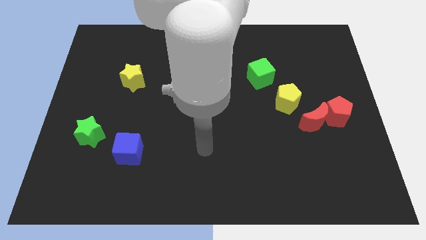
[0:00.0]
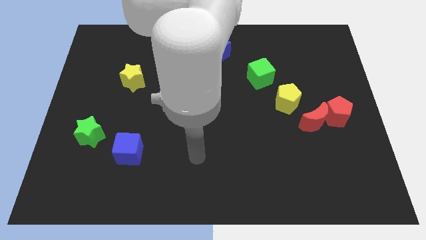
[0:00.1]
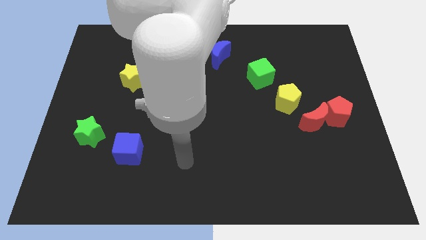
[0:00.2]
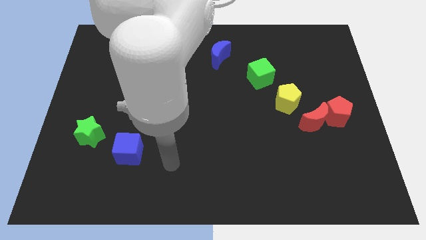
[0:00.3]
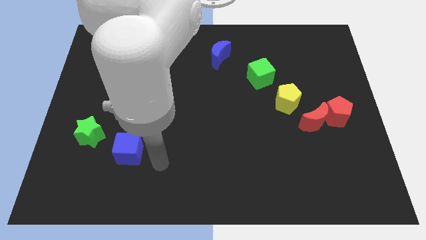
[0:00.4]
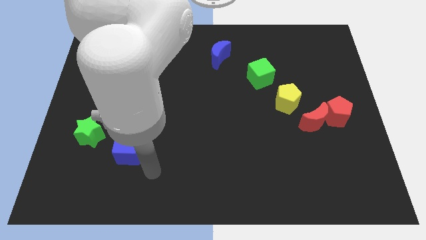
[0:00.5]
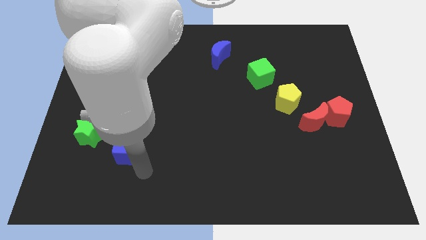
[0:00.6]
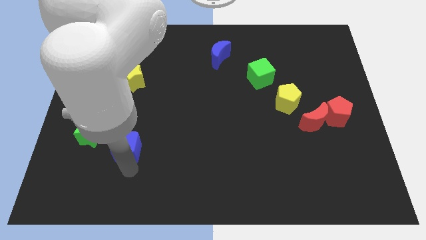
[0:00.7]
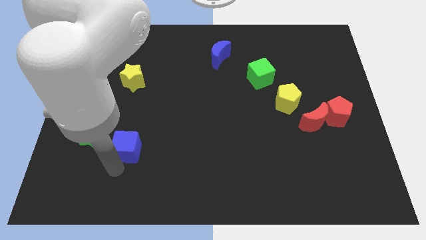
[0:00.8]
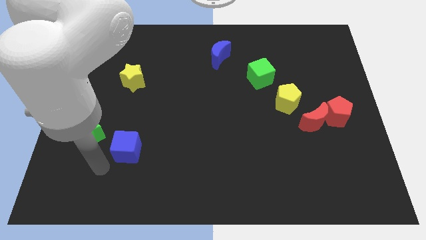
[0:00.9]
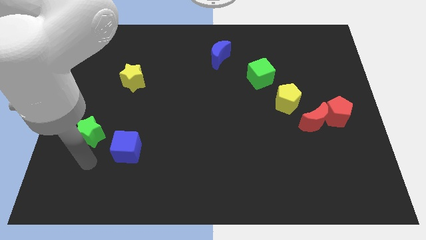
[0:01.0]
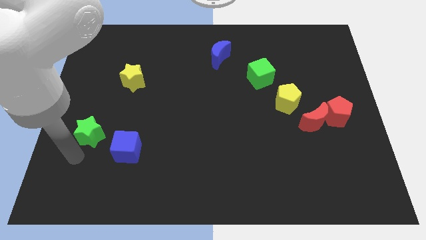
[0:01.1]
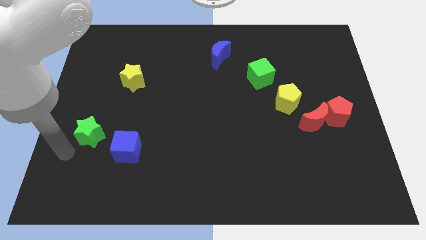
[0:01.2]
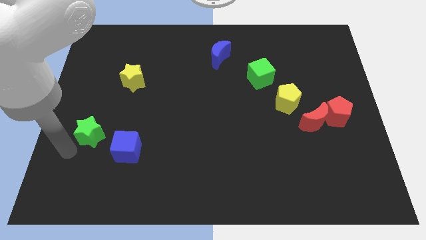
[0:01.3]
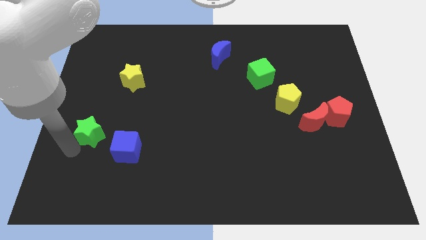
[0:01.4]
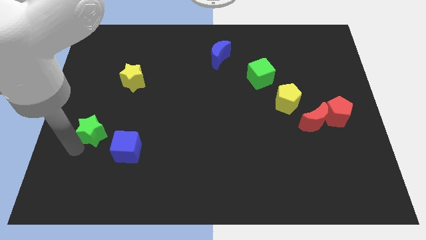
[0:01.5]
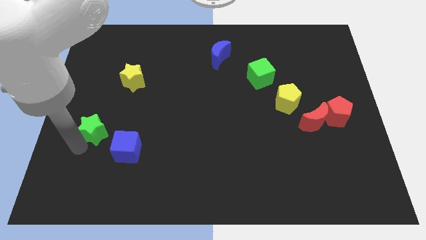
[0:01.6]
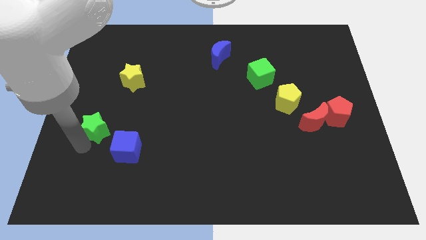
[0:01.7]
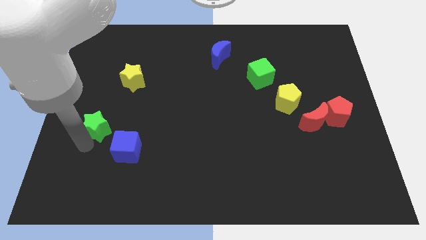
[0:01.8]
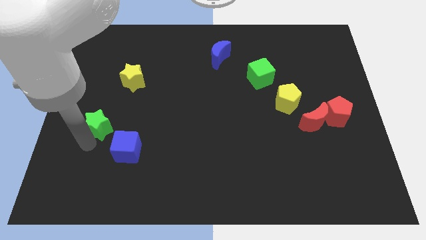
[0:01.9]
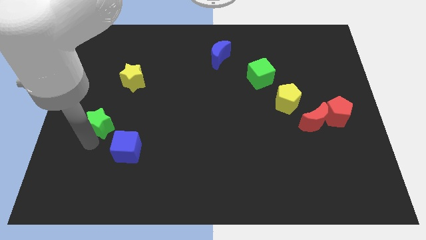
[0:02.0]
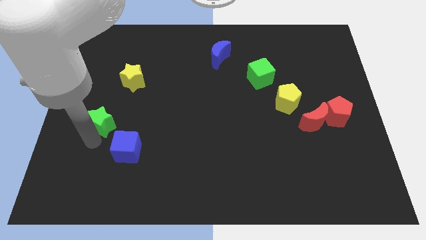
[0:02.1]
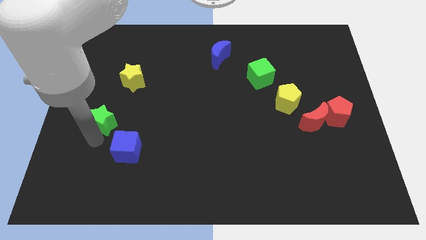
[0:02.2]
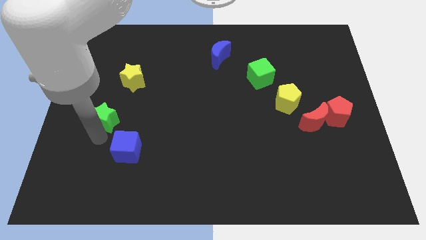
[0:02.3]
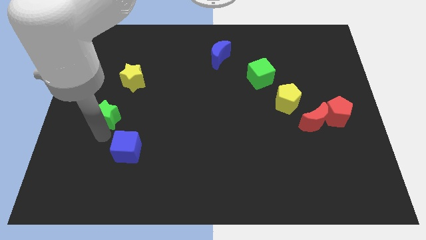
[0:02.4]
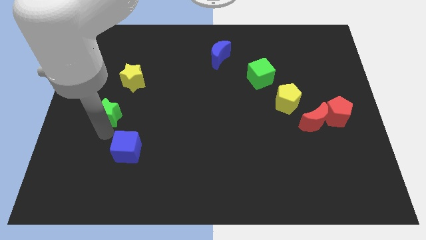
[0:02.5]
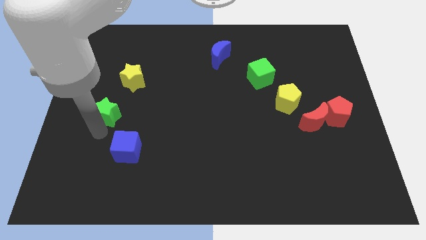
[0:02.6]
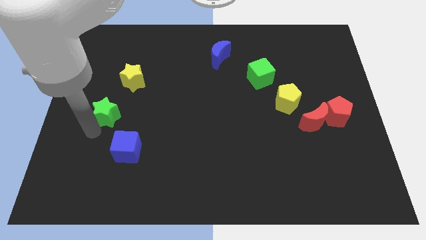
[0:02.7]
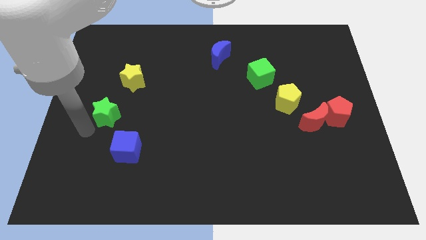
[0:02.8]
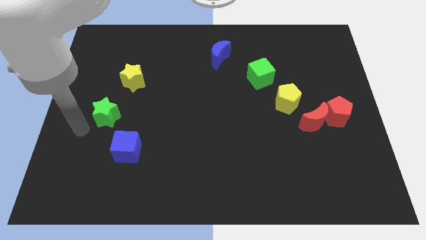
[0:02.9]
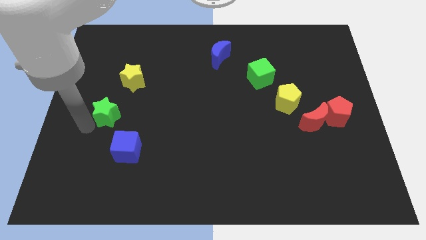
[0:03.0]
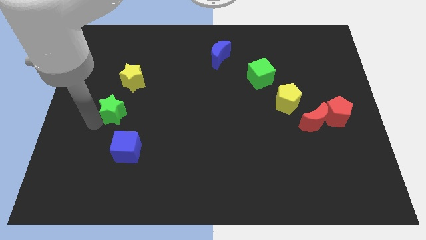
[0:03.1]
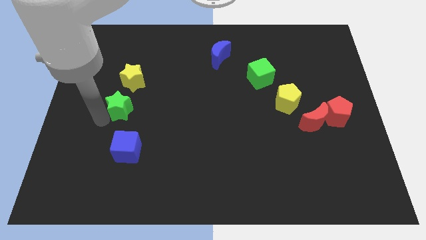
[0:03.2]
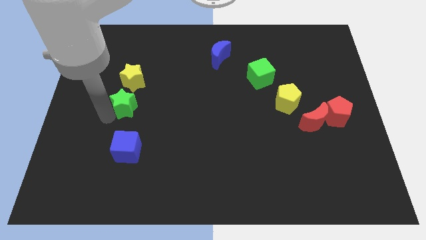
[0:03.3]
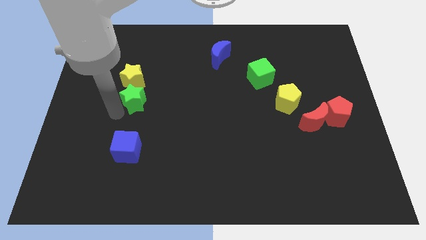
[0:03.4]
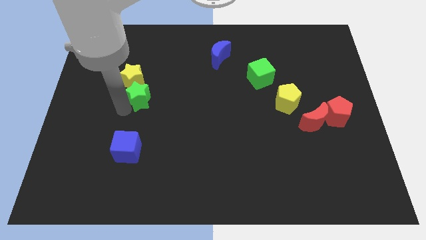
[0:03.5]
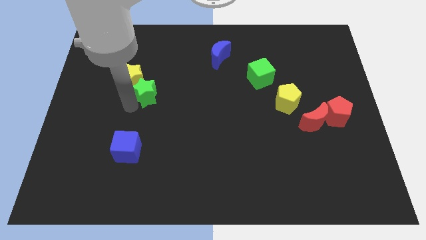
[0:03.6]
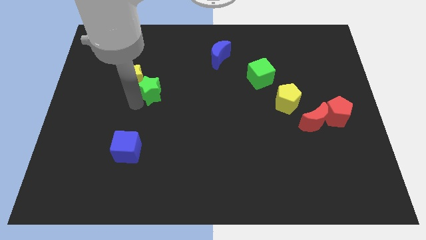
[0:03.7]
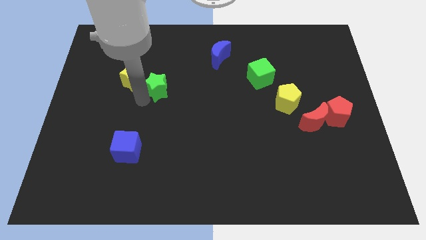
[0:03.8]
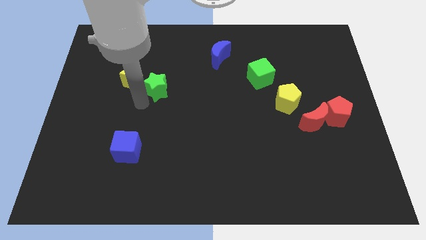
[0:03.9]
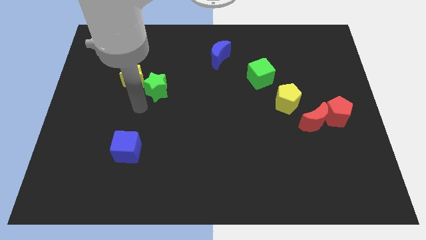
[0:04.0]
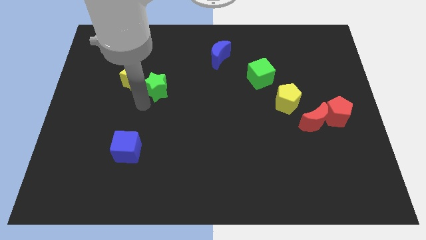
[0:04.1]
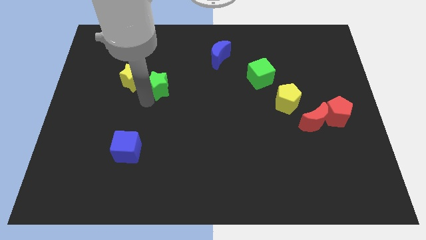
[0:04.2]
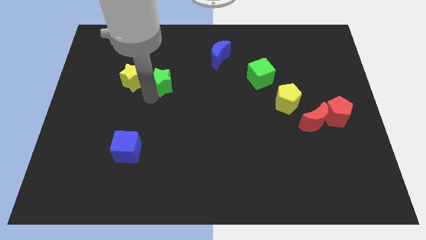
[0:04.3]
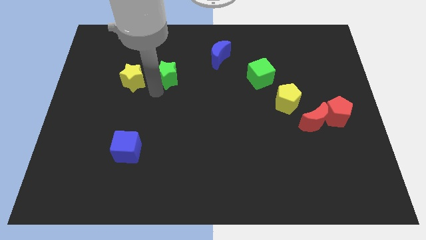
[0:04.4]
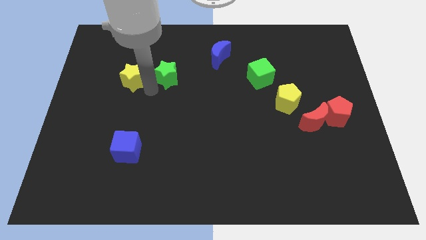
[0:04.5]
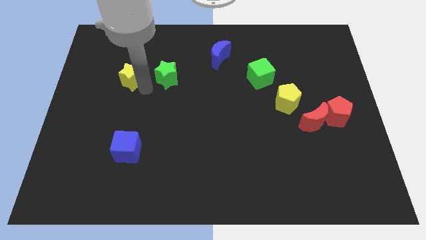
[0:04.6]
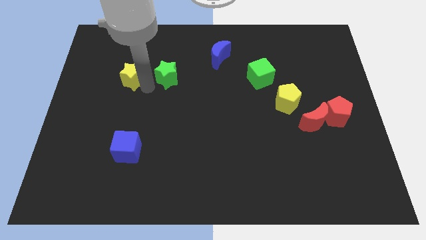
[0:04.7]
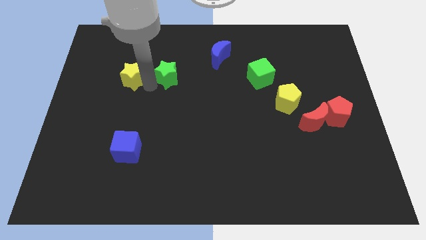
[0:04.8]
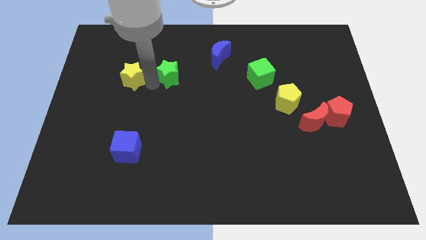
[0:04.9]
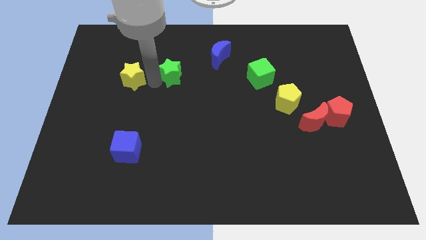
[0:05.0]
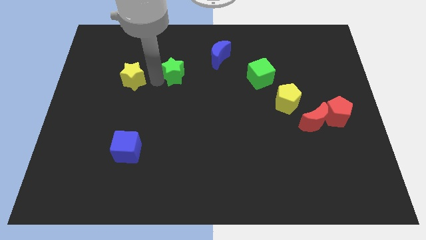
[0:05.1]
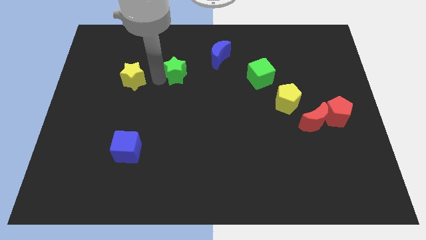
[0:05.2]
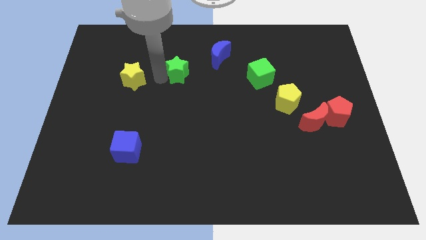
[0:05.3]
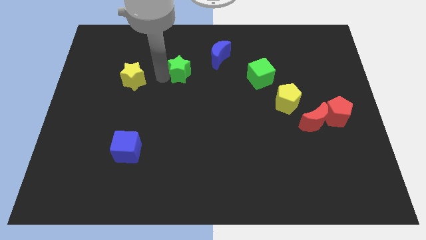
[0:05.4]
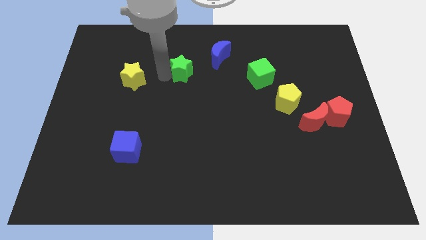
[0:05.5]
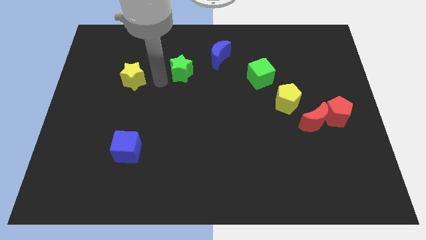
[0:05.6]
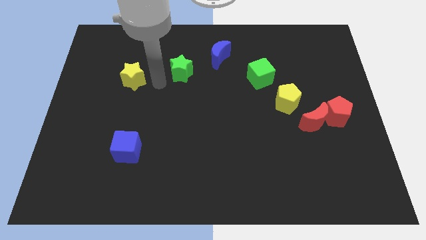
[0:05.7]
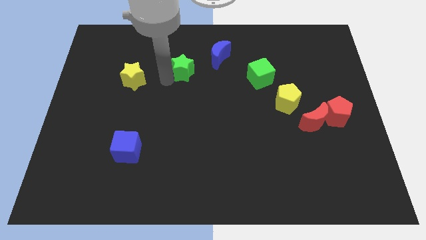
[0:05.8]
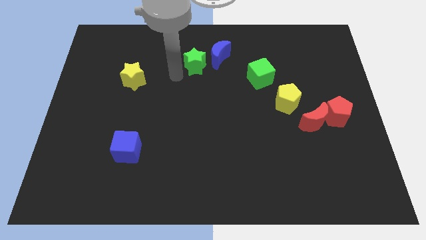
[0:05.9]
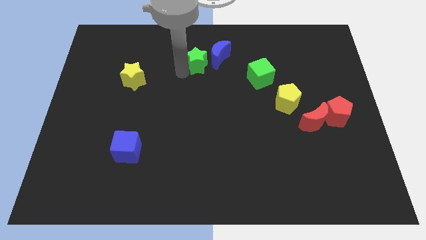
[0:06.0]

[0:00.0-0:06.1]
put the green star close to the blue moon
